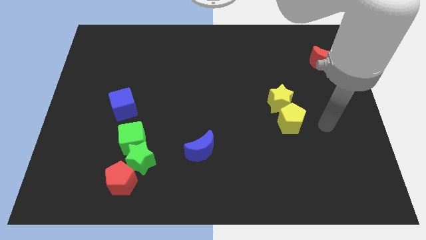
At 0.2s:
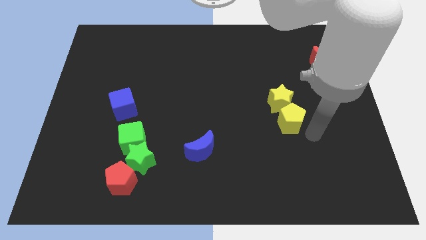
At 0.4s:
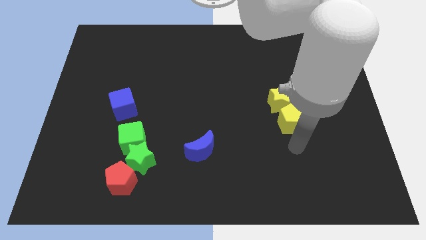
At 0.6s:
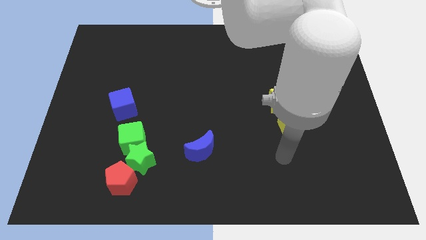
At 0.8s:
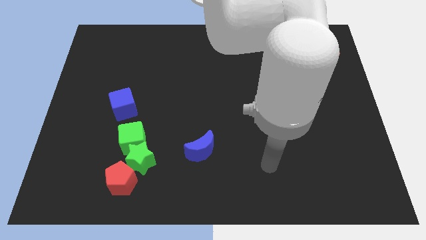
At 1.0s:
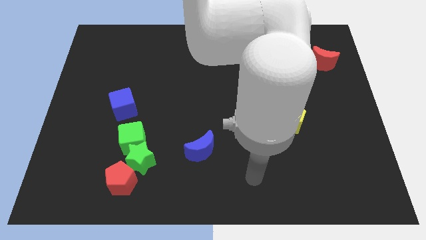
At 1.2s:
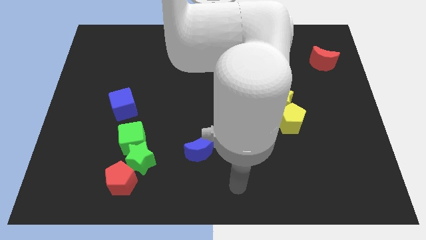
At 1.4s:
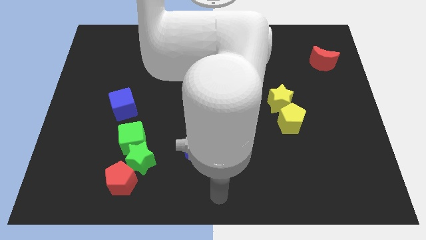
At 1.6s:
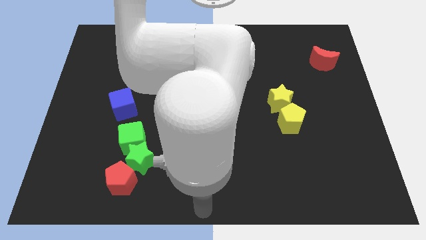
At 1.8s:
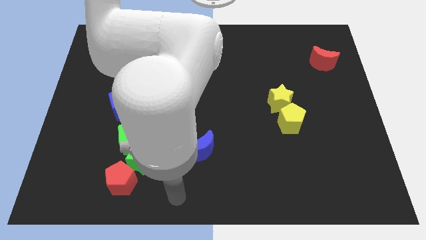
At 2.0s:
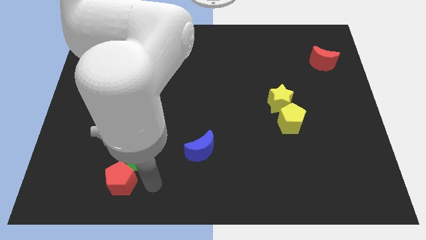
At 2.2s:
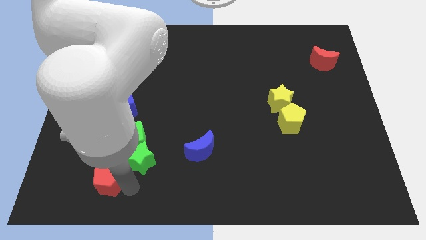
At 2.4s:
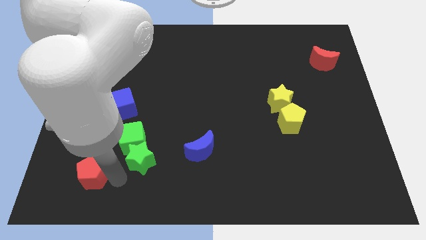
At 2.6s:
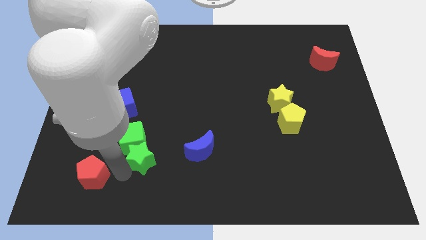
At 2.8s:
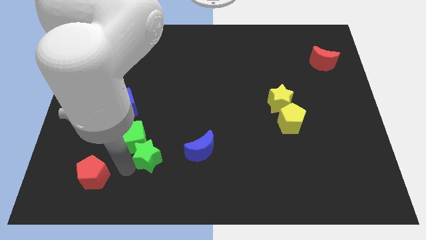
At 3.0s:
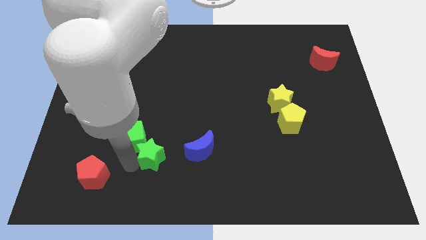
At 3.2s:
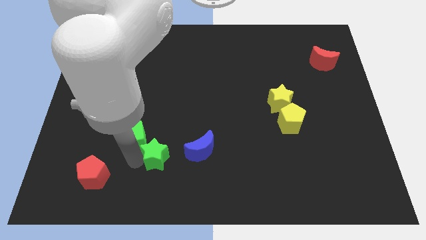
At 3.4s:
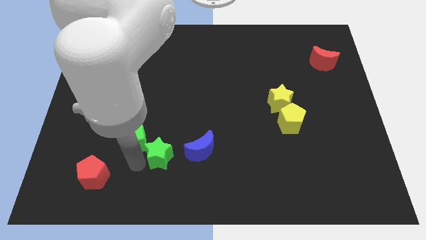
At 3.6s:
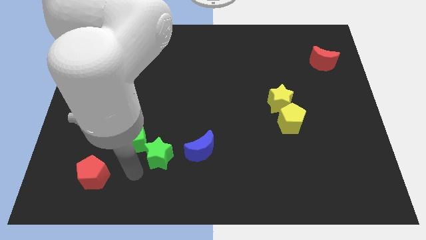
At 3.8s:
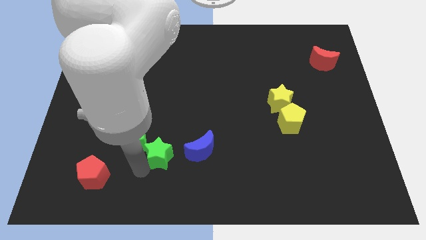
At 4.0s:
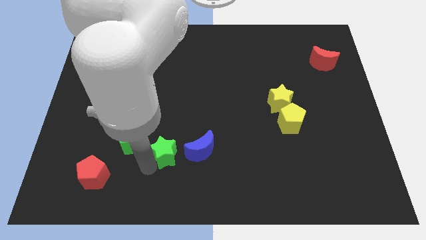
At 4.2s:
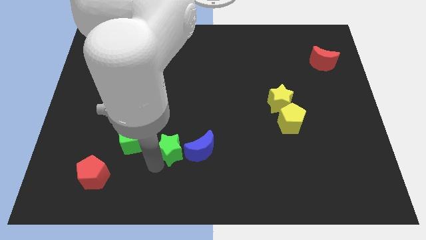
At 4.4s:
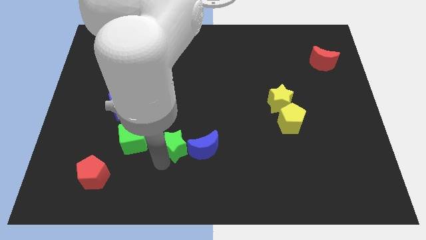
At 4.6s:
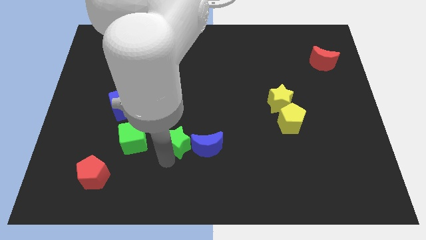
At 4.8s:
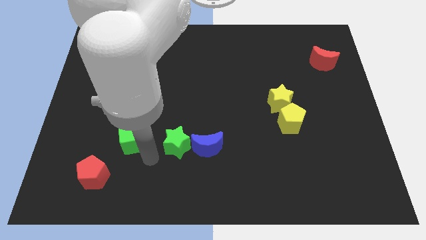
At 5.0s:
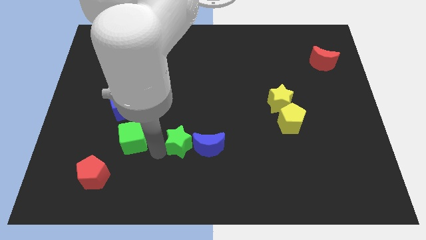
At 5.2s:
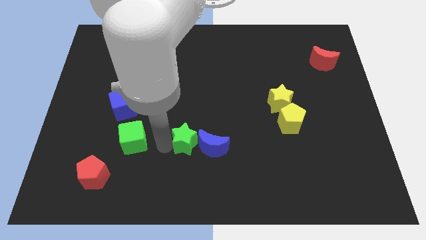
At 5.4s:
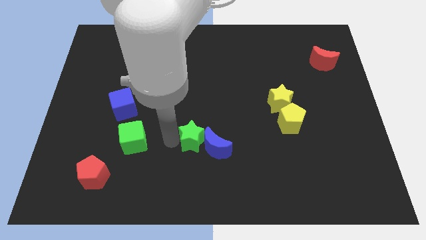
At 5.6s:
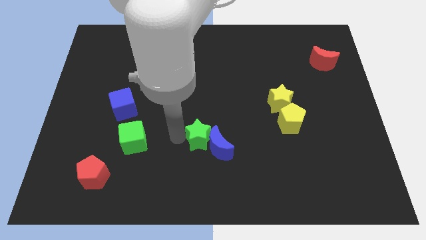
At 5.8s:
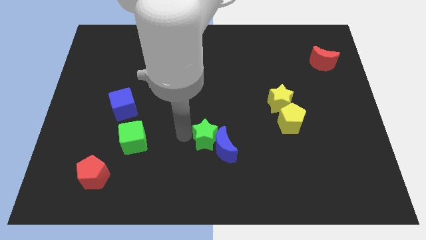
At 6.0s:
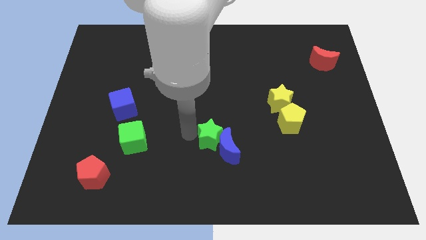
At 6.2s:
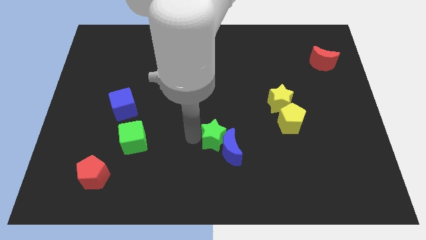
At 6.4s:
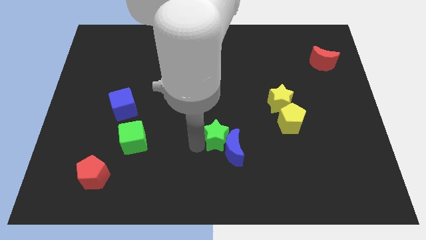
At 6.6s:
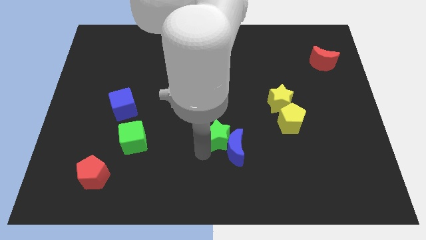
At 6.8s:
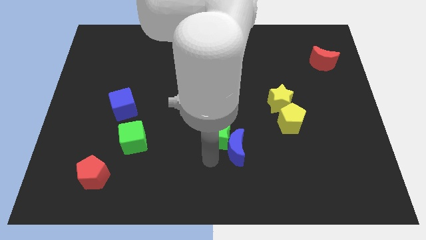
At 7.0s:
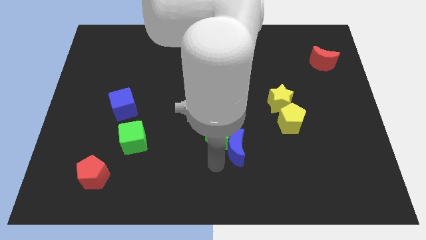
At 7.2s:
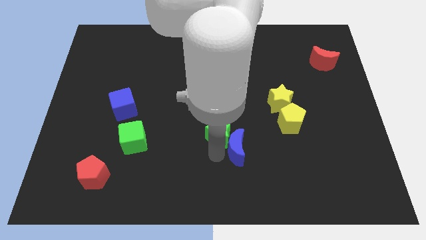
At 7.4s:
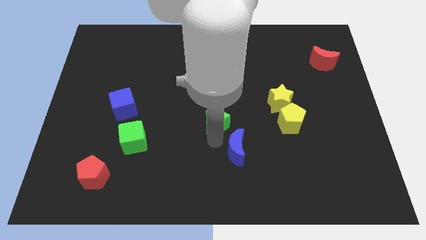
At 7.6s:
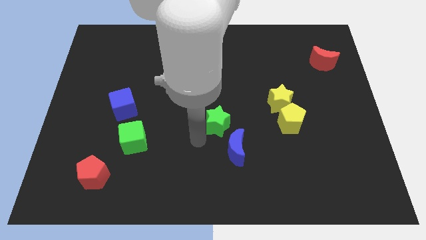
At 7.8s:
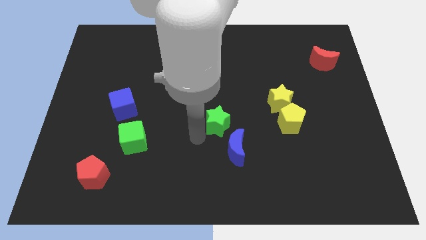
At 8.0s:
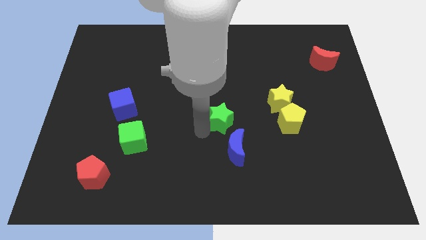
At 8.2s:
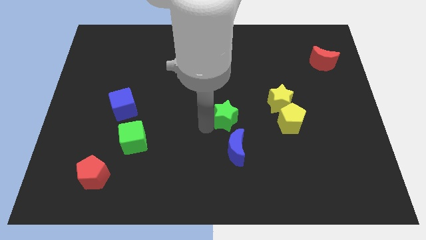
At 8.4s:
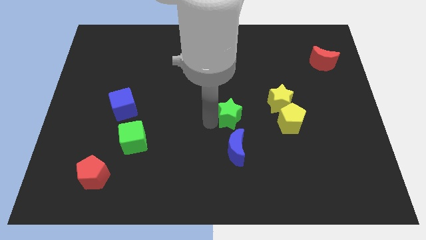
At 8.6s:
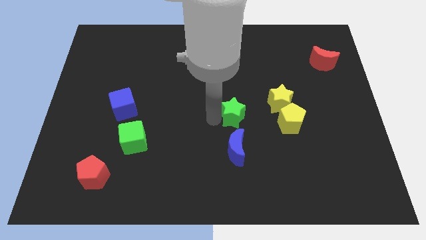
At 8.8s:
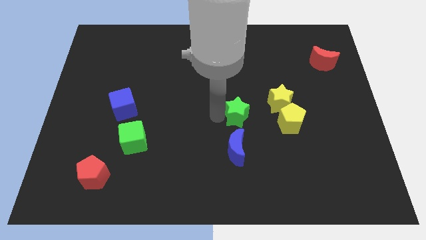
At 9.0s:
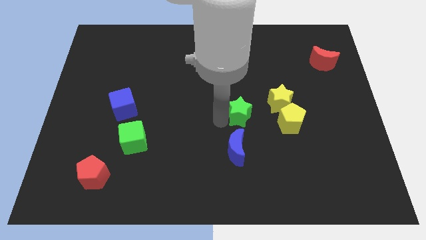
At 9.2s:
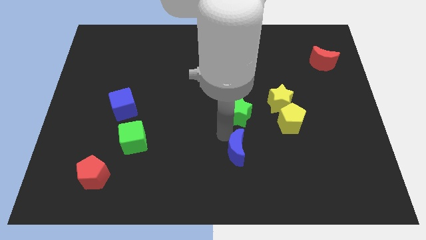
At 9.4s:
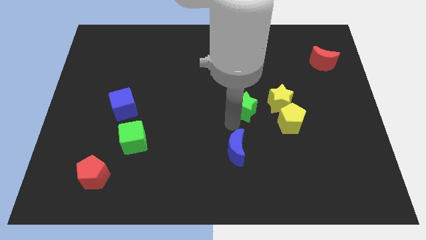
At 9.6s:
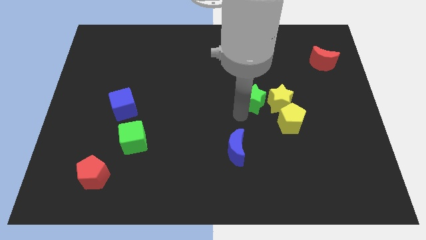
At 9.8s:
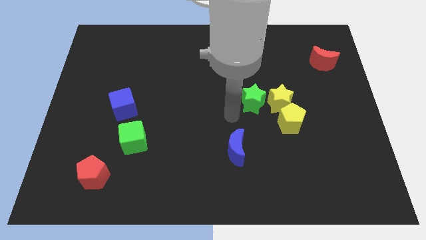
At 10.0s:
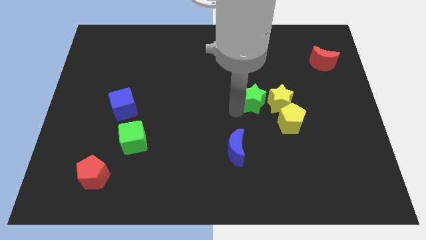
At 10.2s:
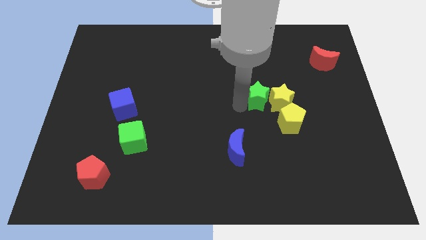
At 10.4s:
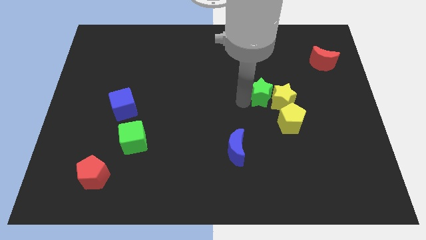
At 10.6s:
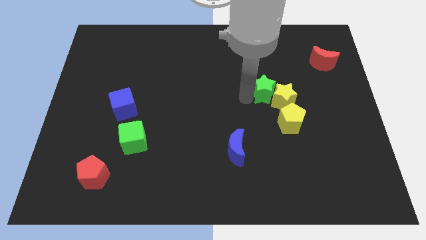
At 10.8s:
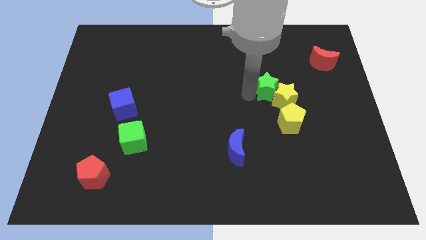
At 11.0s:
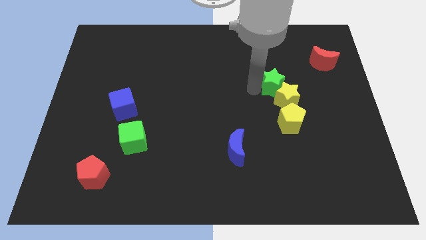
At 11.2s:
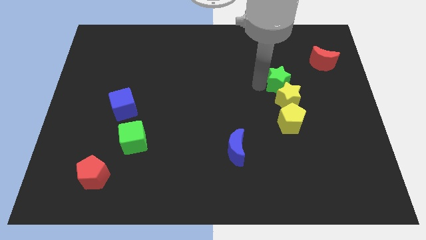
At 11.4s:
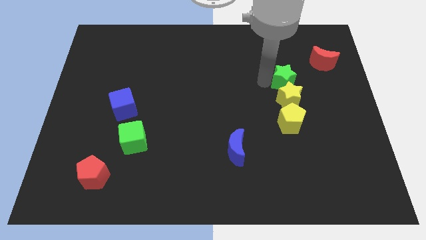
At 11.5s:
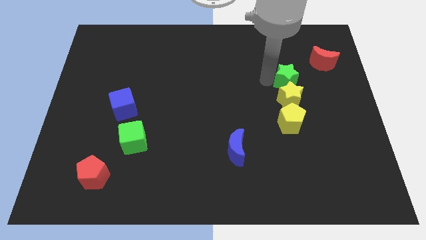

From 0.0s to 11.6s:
put the green star to the bottom left of the red moon

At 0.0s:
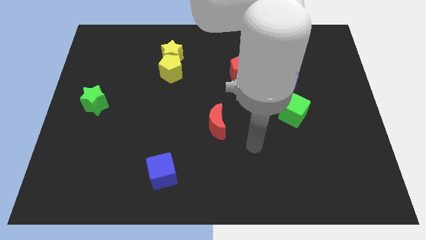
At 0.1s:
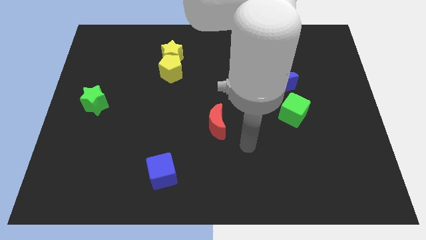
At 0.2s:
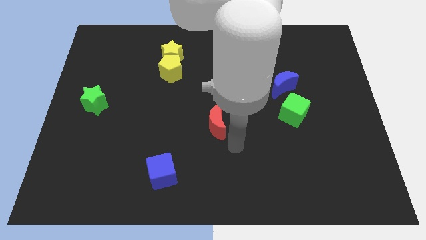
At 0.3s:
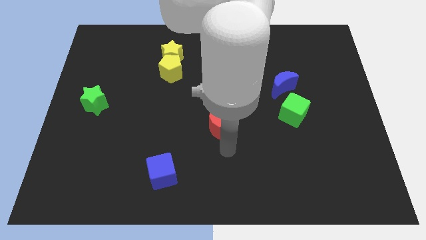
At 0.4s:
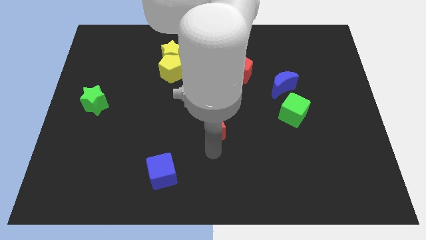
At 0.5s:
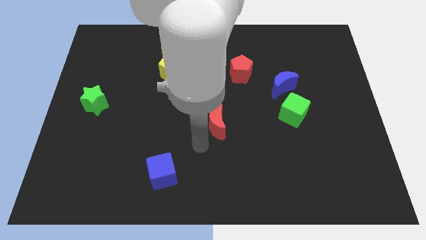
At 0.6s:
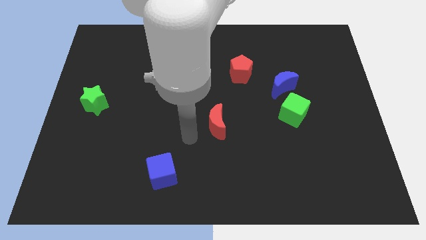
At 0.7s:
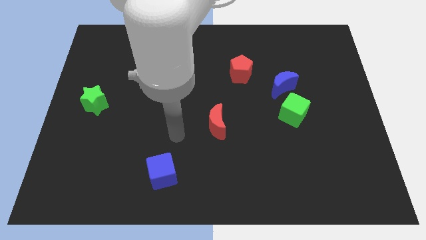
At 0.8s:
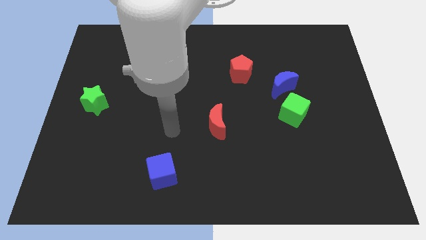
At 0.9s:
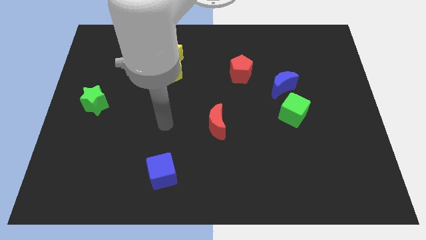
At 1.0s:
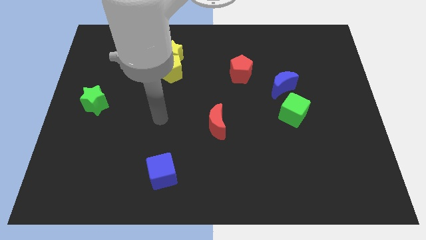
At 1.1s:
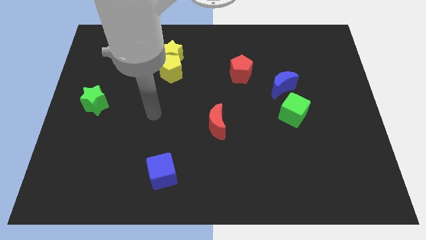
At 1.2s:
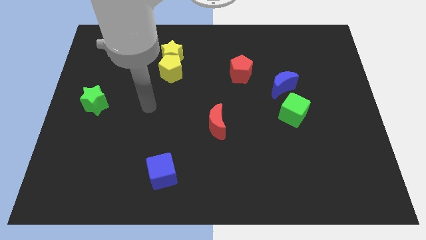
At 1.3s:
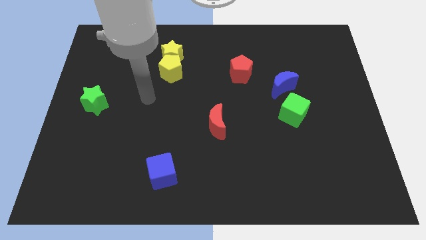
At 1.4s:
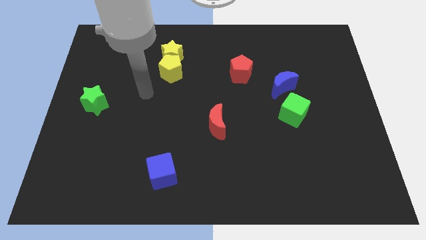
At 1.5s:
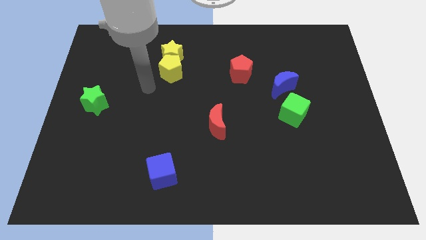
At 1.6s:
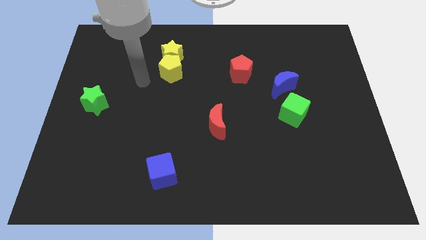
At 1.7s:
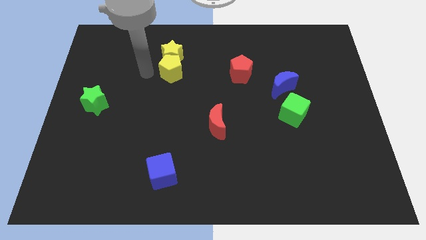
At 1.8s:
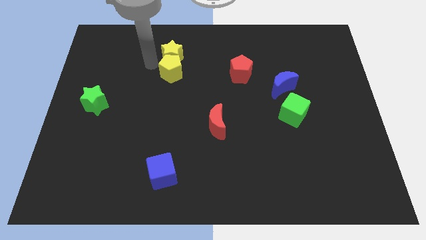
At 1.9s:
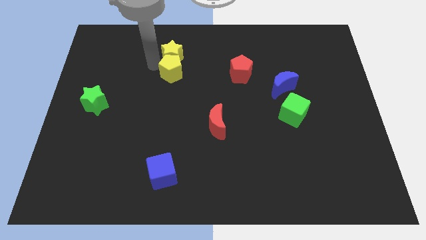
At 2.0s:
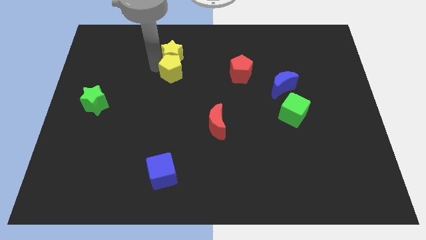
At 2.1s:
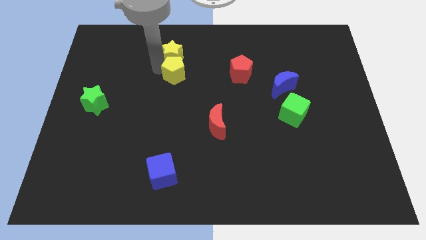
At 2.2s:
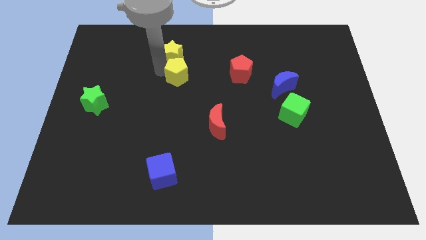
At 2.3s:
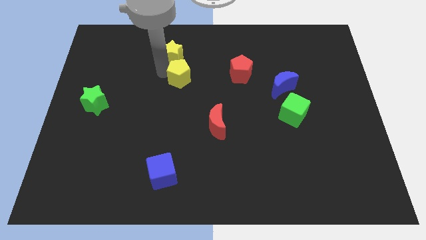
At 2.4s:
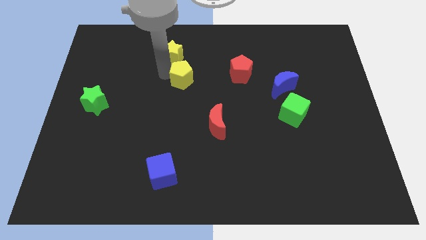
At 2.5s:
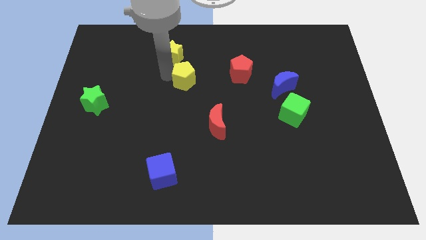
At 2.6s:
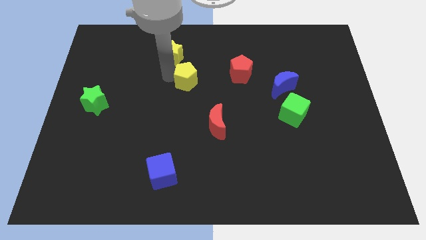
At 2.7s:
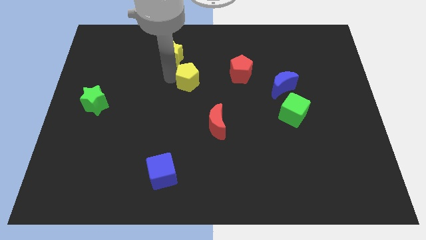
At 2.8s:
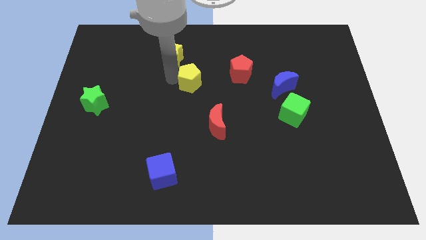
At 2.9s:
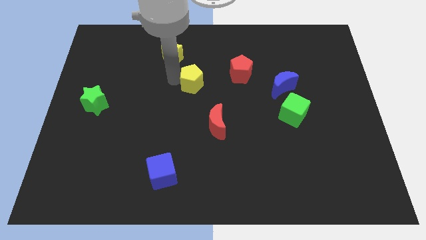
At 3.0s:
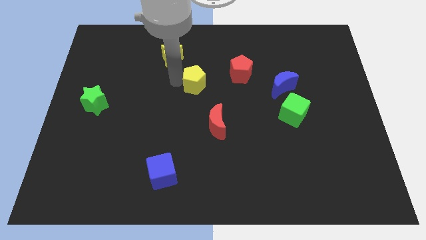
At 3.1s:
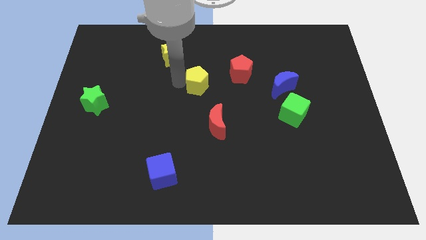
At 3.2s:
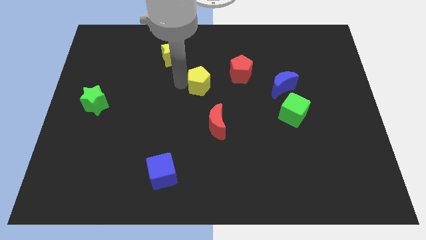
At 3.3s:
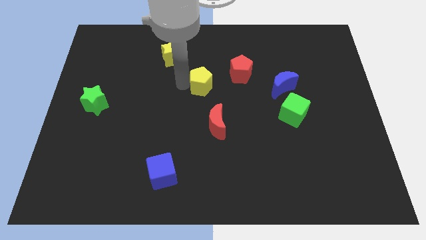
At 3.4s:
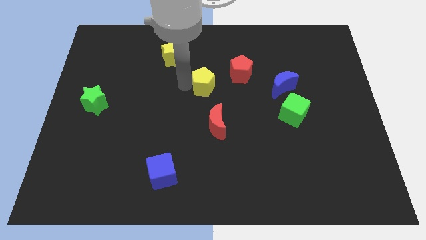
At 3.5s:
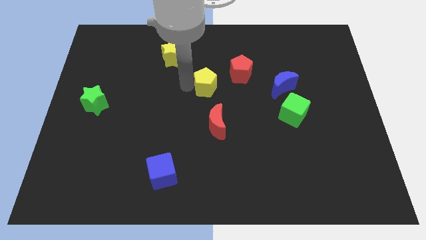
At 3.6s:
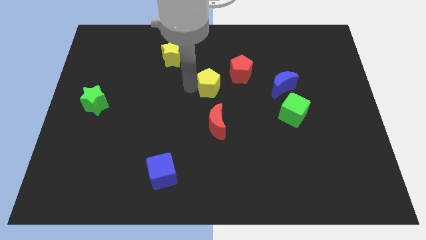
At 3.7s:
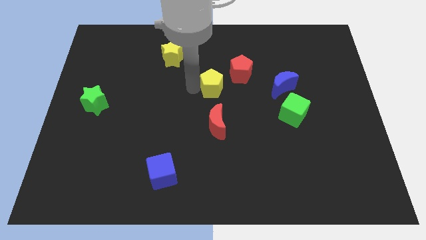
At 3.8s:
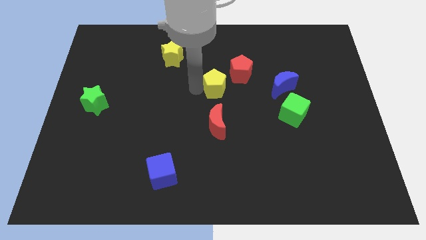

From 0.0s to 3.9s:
put the yellow pentagon left of the blue moon
